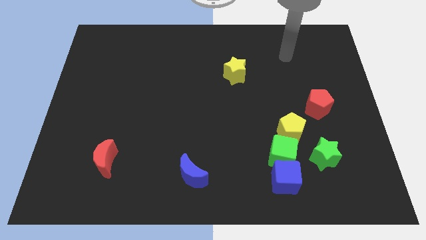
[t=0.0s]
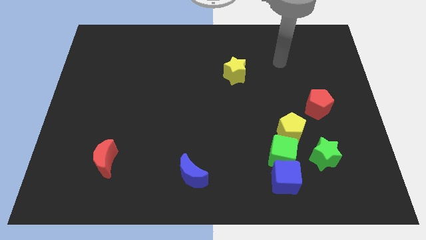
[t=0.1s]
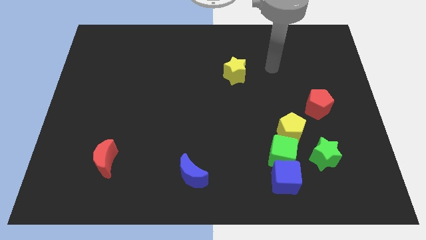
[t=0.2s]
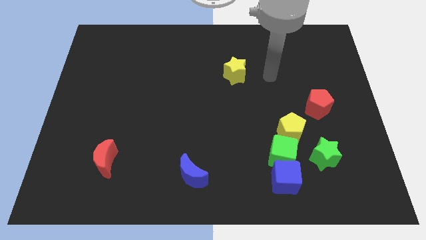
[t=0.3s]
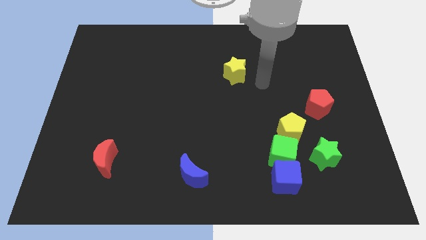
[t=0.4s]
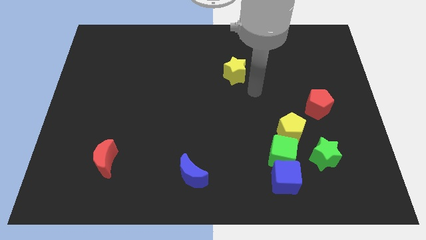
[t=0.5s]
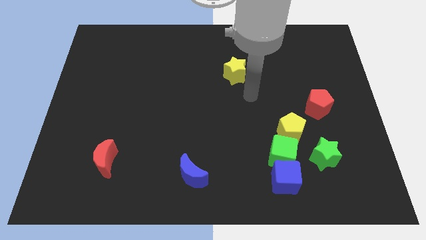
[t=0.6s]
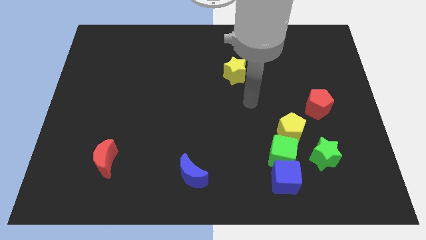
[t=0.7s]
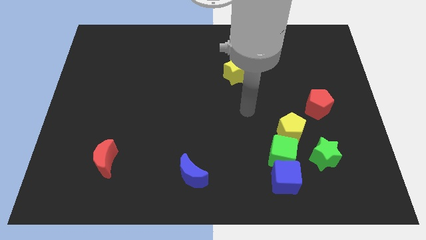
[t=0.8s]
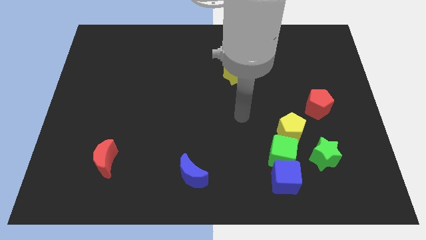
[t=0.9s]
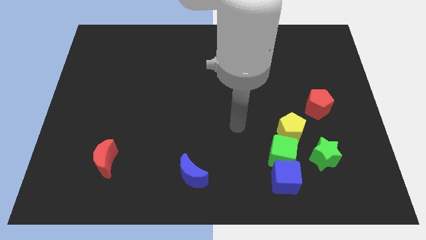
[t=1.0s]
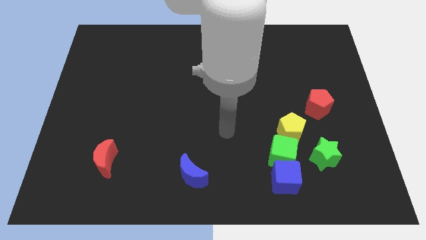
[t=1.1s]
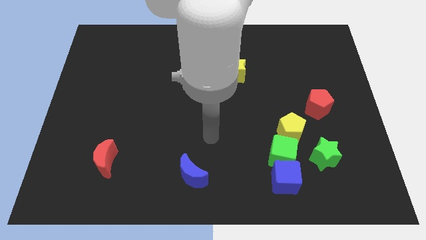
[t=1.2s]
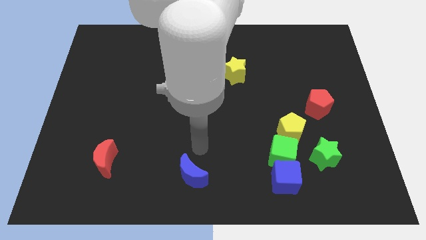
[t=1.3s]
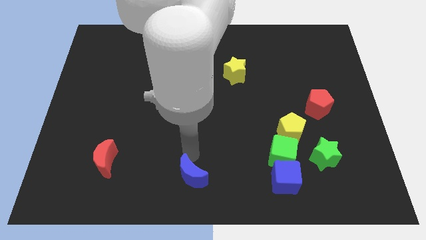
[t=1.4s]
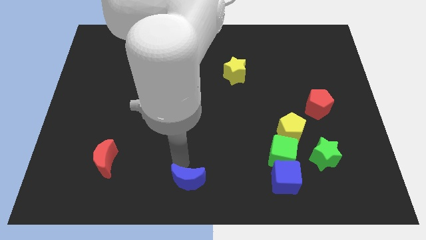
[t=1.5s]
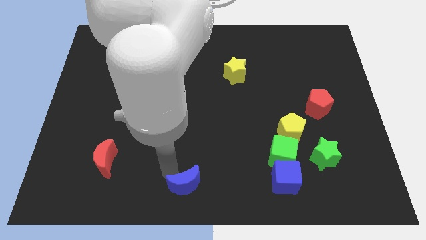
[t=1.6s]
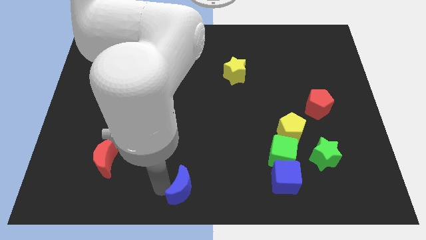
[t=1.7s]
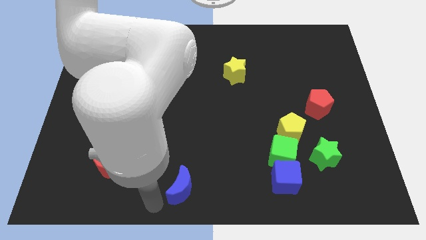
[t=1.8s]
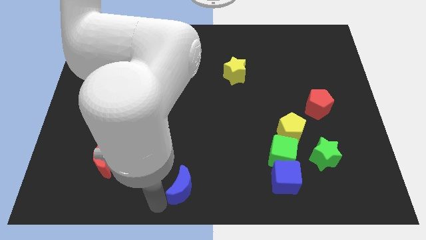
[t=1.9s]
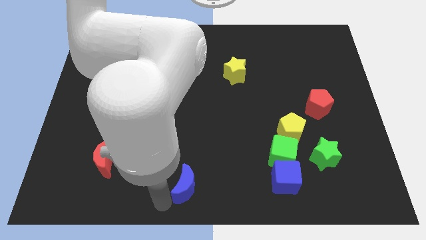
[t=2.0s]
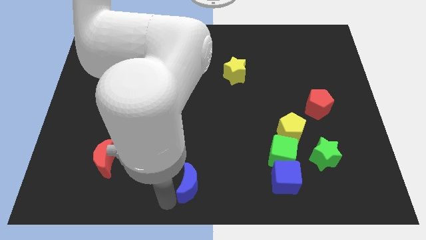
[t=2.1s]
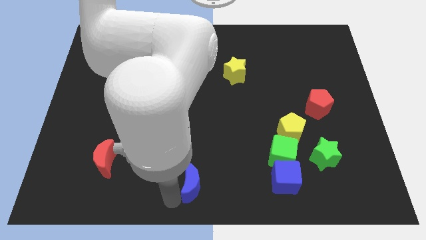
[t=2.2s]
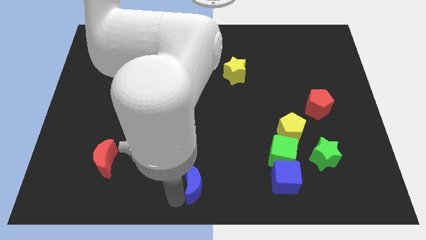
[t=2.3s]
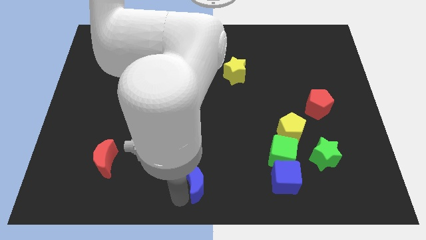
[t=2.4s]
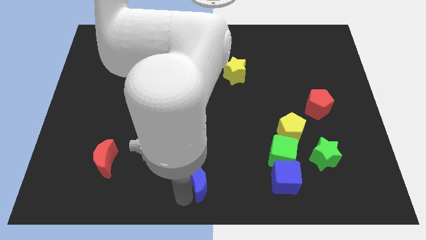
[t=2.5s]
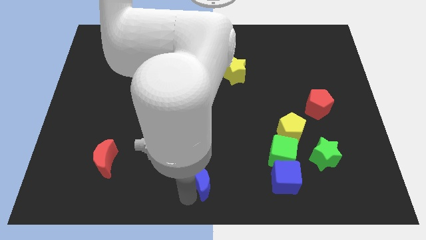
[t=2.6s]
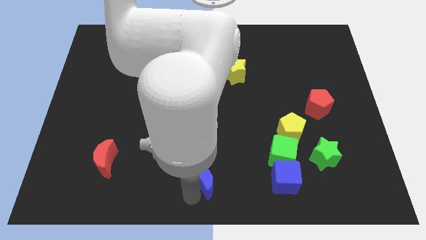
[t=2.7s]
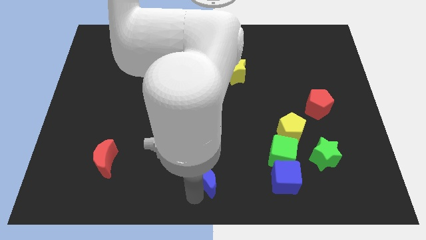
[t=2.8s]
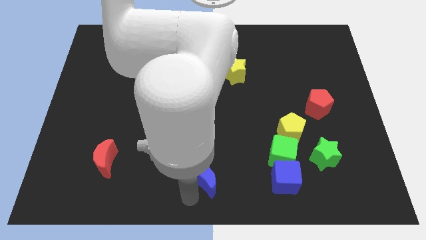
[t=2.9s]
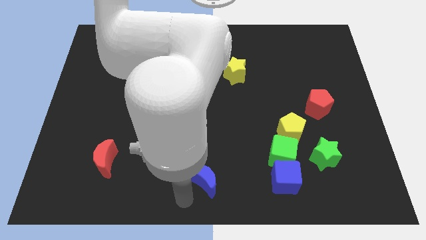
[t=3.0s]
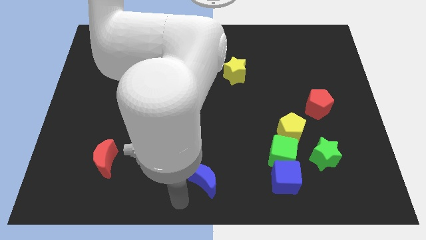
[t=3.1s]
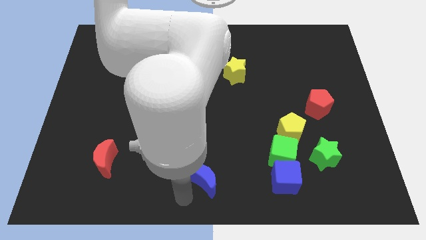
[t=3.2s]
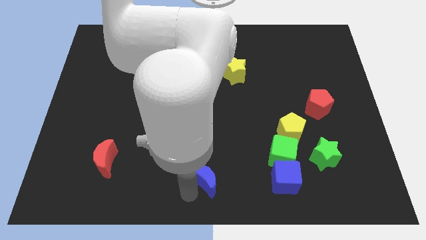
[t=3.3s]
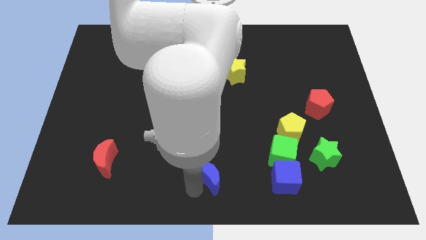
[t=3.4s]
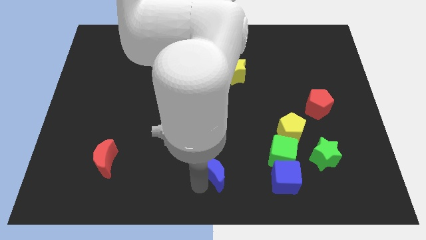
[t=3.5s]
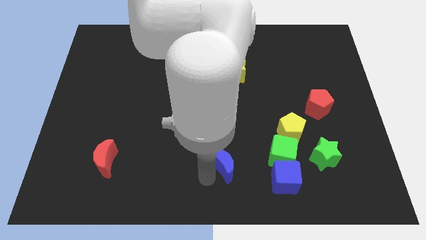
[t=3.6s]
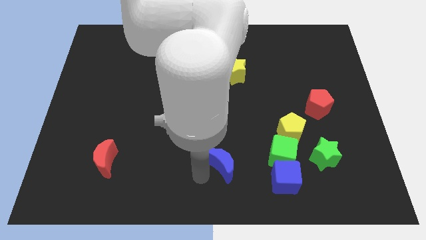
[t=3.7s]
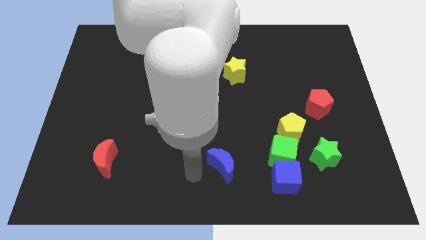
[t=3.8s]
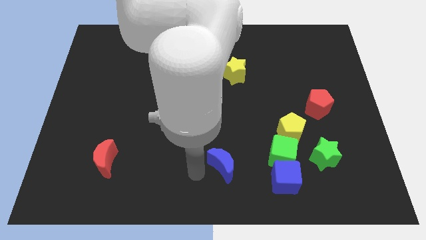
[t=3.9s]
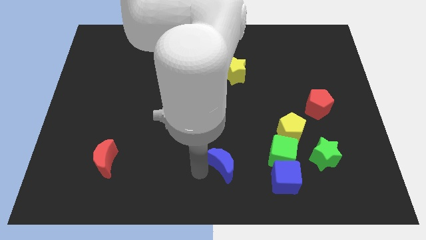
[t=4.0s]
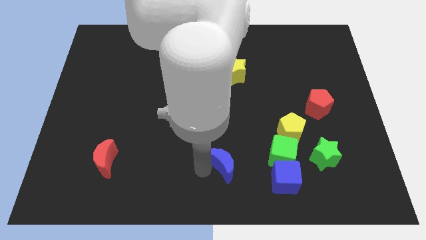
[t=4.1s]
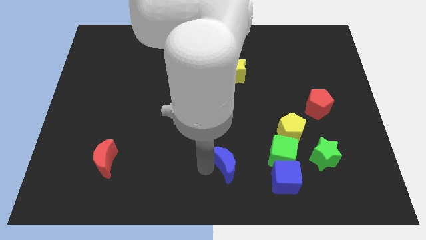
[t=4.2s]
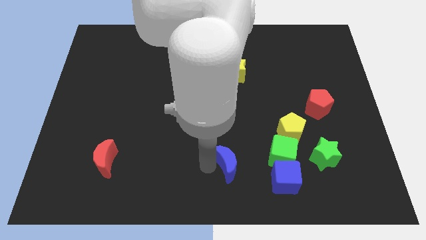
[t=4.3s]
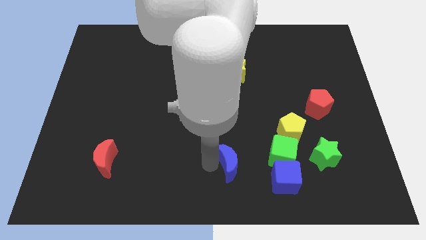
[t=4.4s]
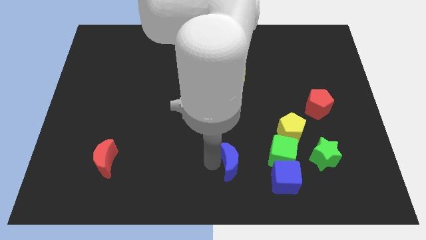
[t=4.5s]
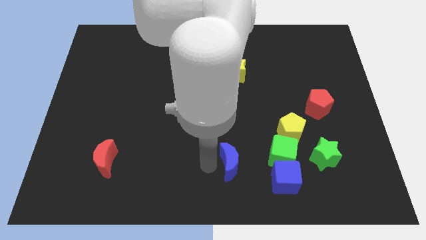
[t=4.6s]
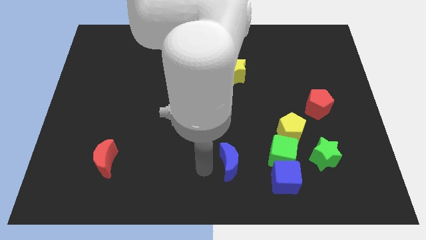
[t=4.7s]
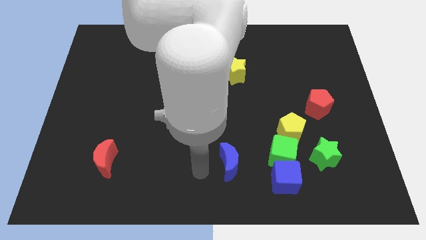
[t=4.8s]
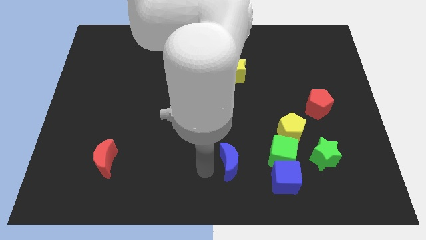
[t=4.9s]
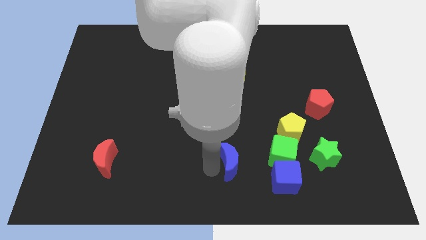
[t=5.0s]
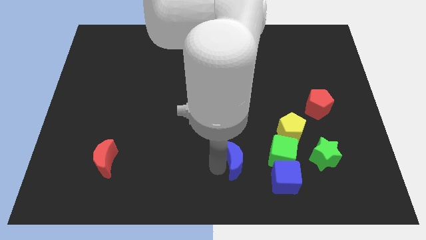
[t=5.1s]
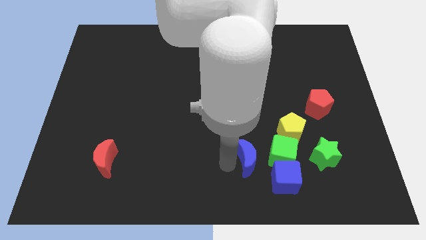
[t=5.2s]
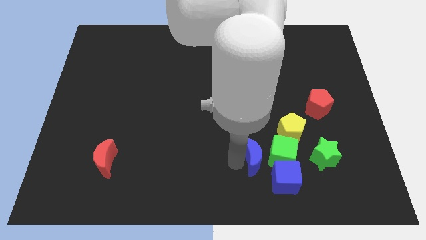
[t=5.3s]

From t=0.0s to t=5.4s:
push the blue moon towards the green cube

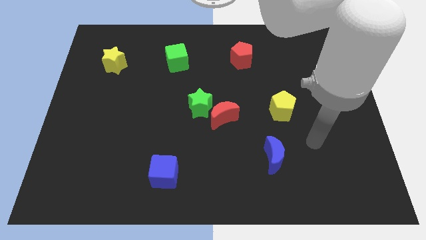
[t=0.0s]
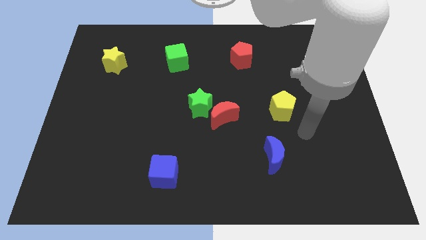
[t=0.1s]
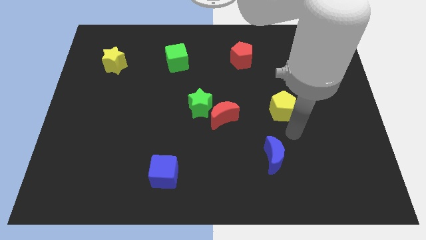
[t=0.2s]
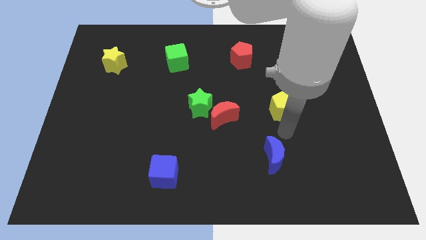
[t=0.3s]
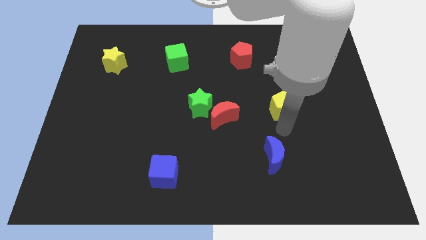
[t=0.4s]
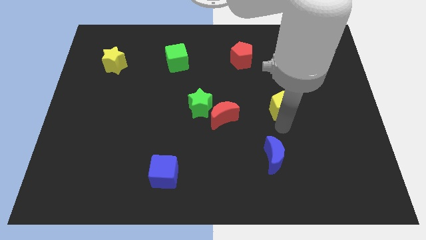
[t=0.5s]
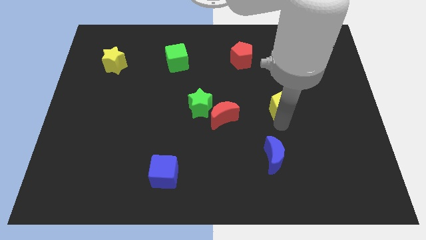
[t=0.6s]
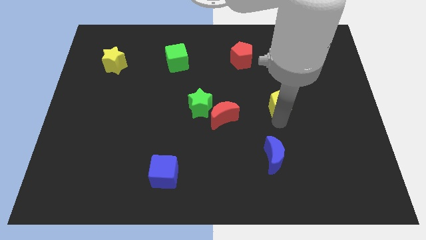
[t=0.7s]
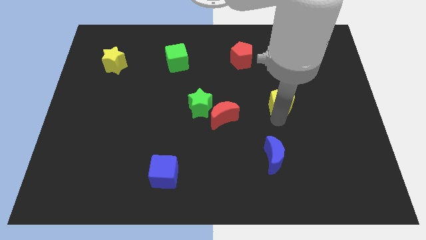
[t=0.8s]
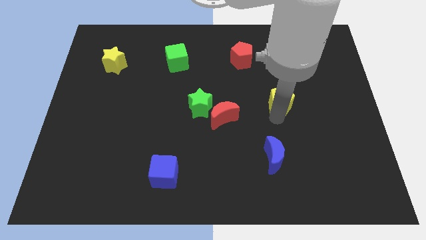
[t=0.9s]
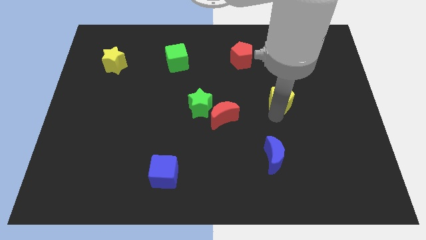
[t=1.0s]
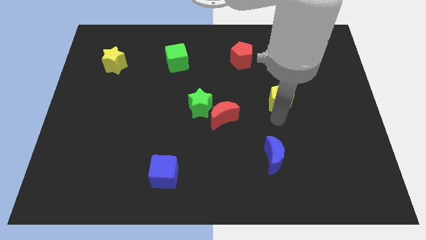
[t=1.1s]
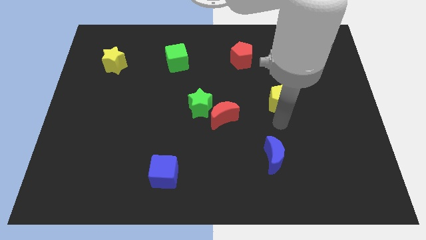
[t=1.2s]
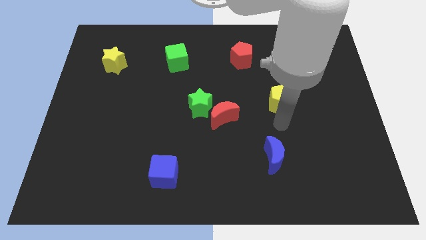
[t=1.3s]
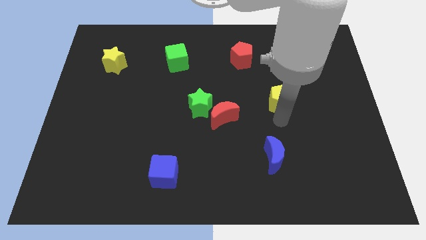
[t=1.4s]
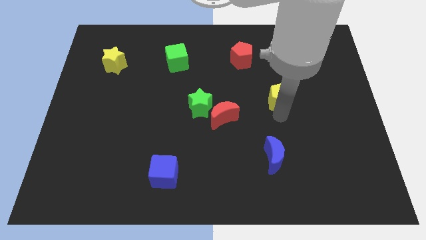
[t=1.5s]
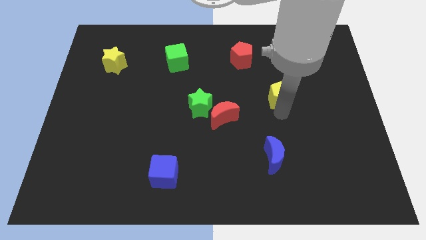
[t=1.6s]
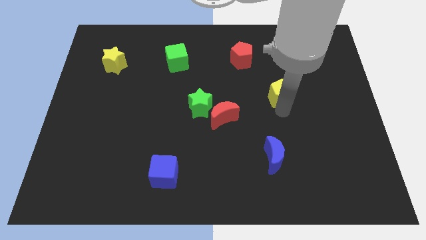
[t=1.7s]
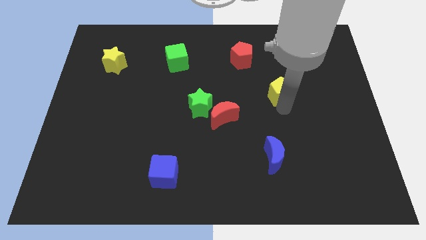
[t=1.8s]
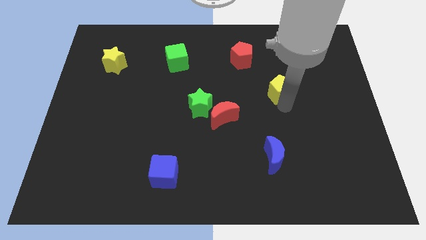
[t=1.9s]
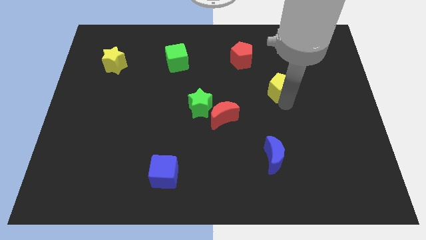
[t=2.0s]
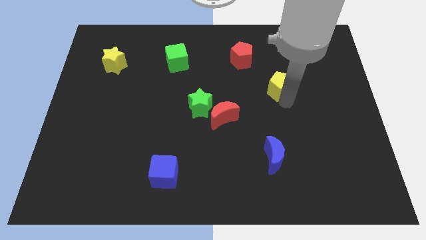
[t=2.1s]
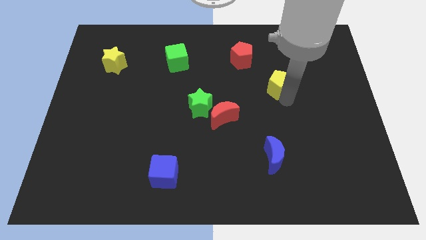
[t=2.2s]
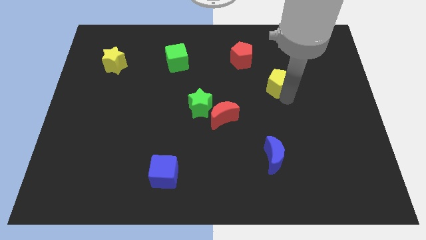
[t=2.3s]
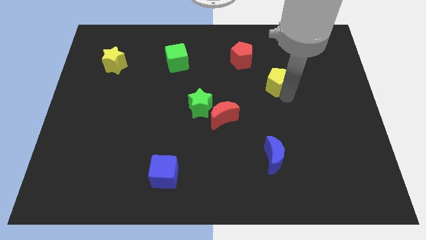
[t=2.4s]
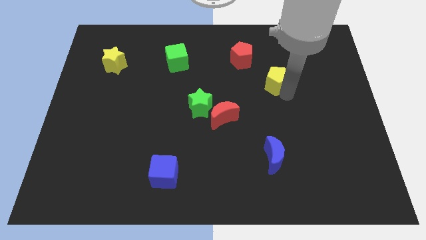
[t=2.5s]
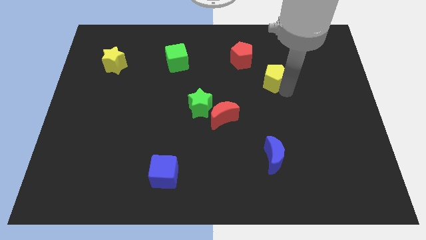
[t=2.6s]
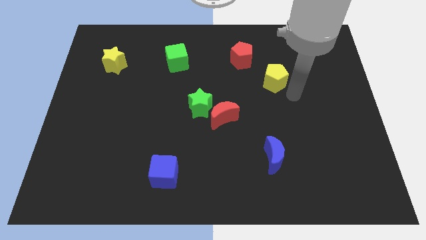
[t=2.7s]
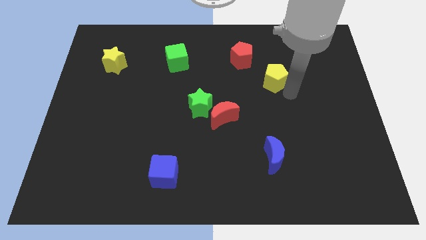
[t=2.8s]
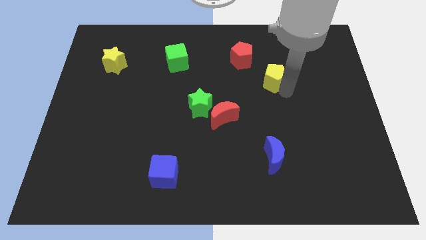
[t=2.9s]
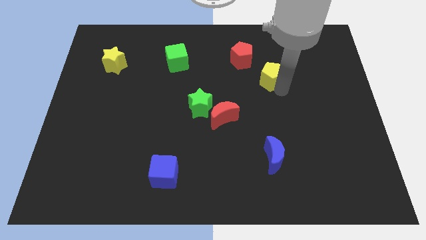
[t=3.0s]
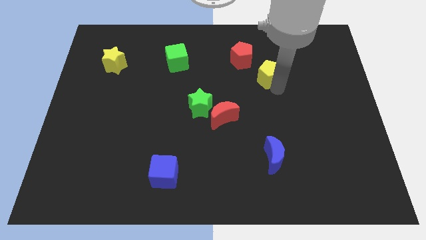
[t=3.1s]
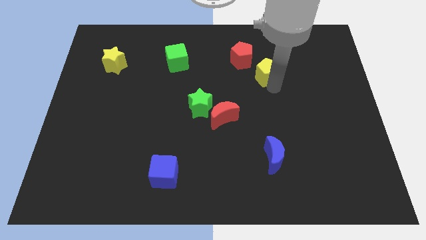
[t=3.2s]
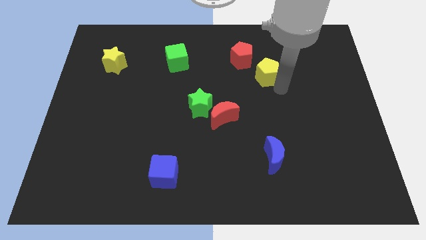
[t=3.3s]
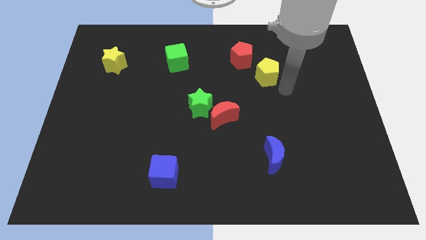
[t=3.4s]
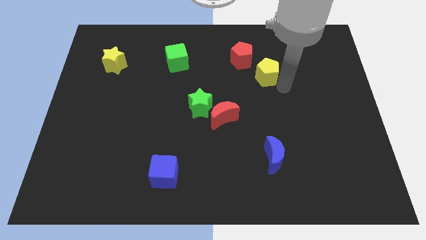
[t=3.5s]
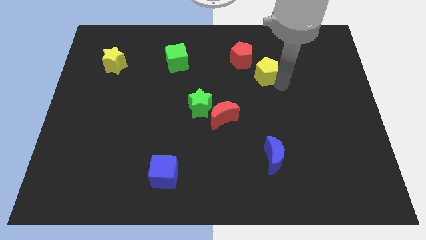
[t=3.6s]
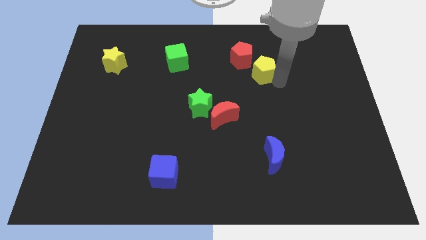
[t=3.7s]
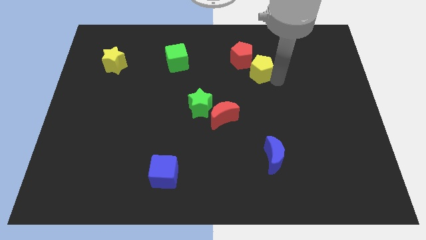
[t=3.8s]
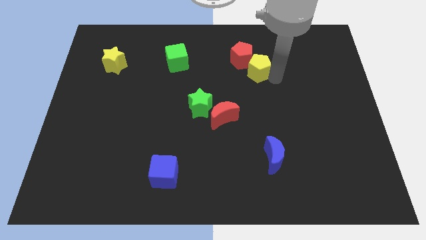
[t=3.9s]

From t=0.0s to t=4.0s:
push the yellow pentagon next to the red pentagon
